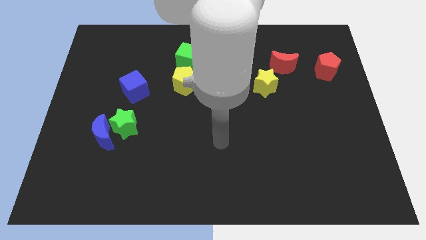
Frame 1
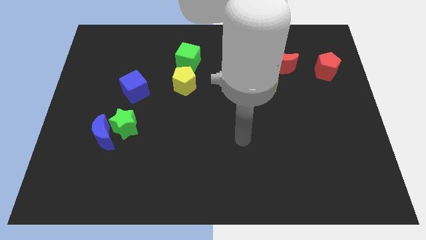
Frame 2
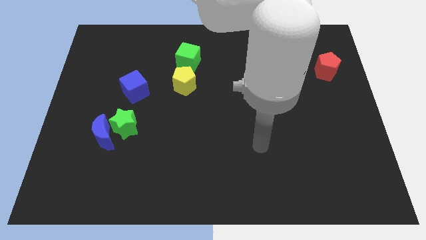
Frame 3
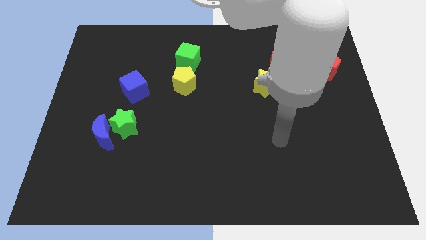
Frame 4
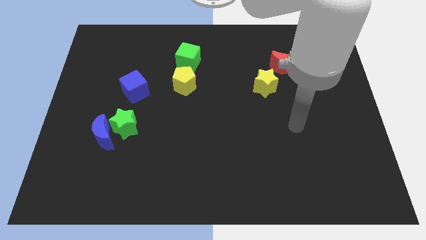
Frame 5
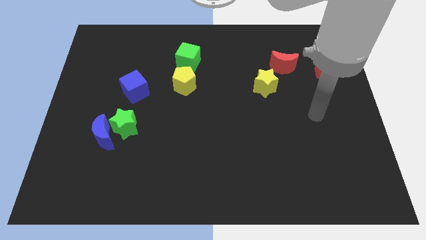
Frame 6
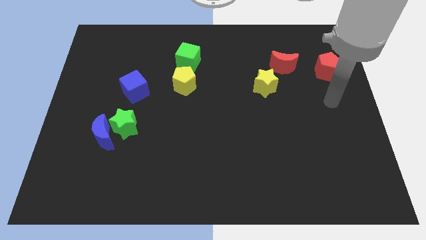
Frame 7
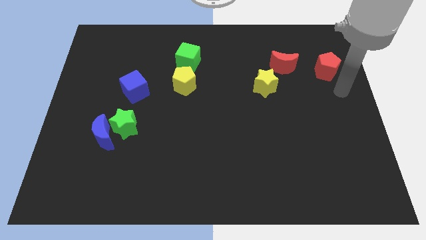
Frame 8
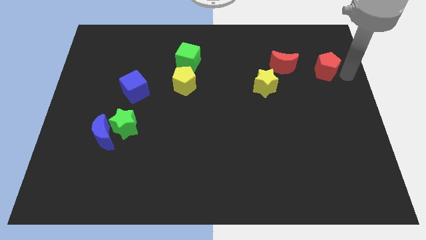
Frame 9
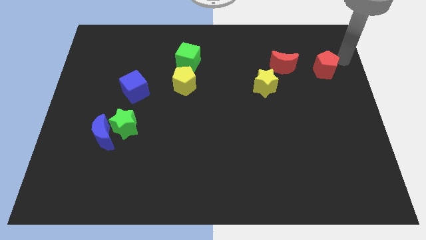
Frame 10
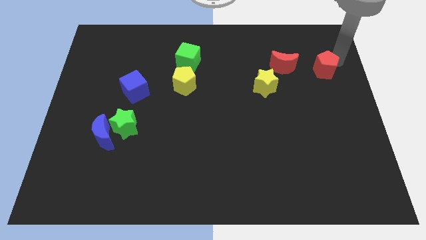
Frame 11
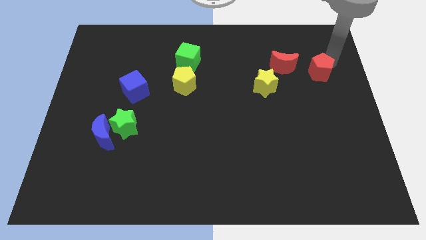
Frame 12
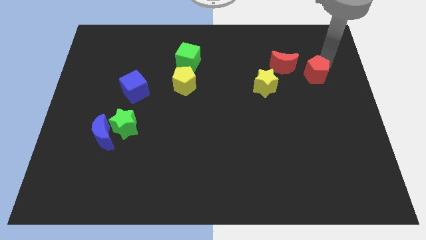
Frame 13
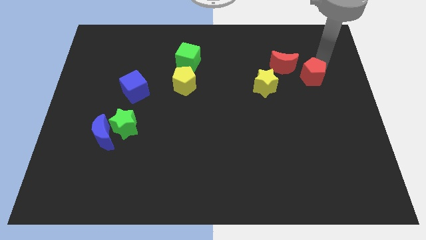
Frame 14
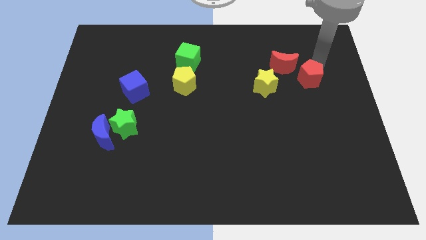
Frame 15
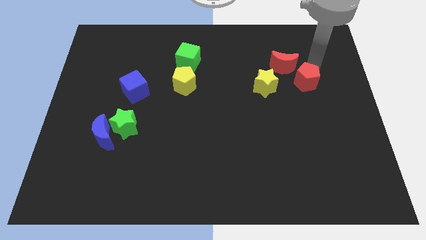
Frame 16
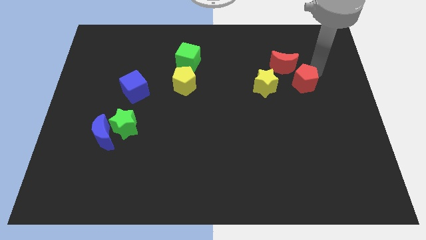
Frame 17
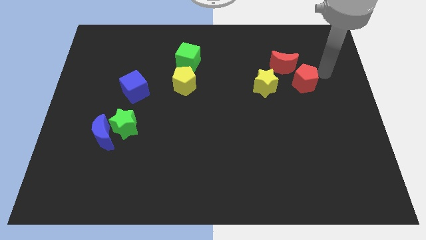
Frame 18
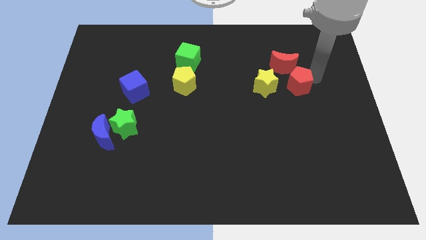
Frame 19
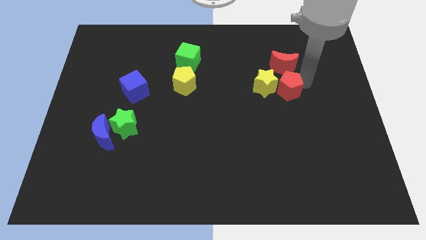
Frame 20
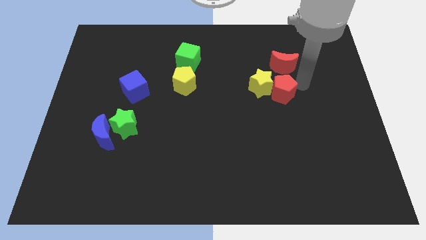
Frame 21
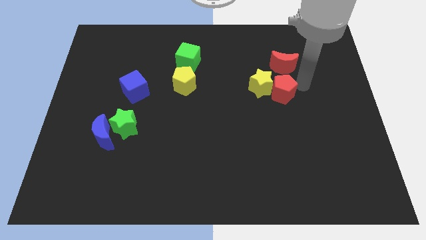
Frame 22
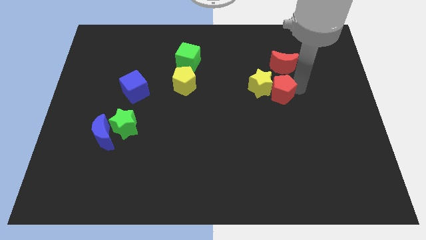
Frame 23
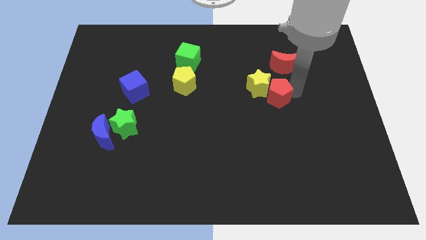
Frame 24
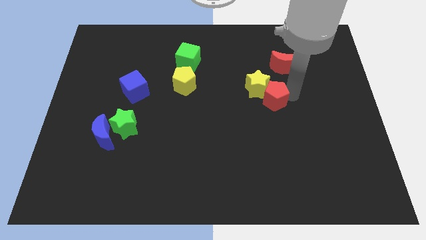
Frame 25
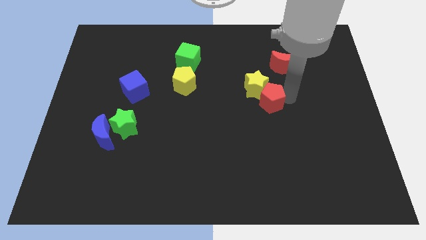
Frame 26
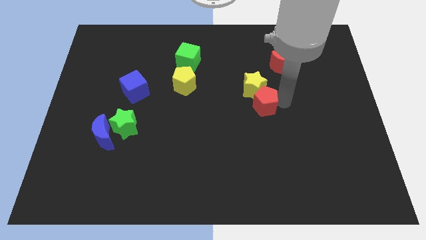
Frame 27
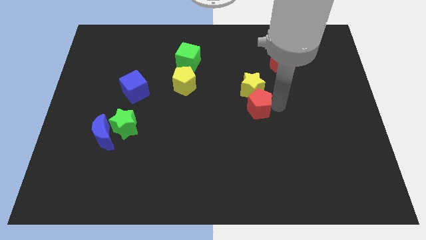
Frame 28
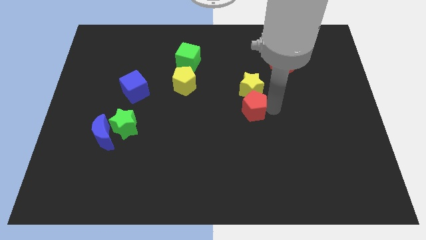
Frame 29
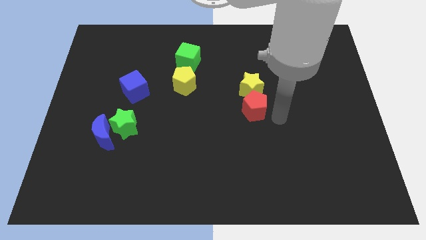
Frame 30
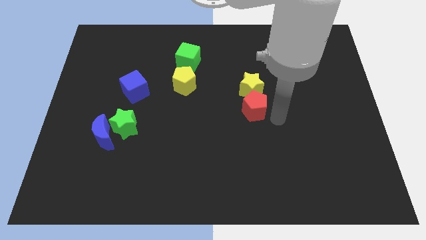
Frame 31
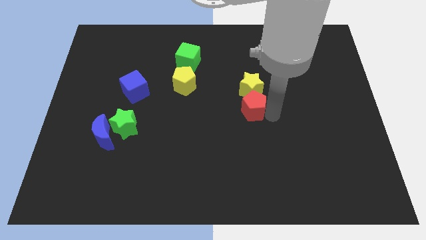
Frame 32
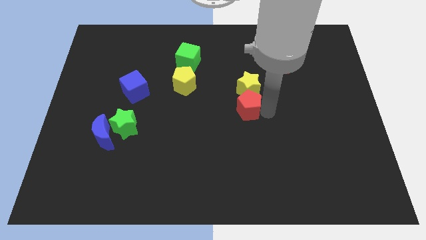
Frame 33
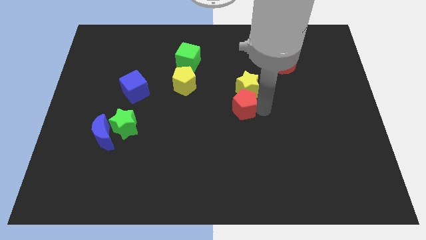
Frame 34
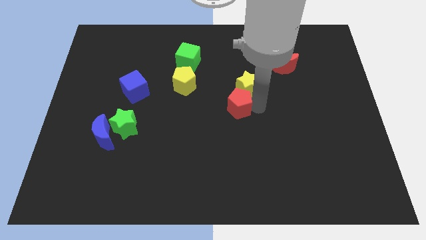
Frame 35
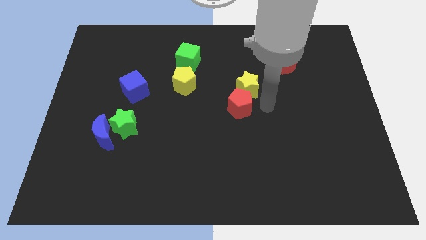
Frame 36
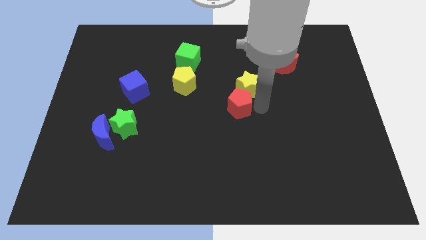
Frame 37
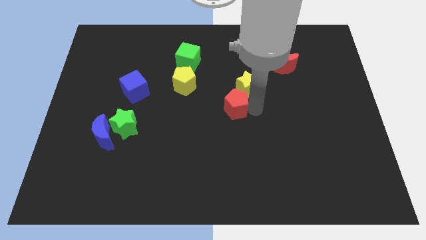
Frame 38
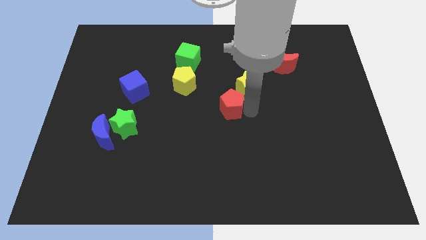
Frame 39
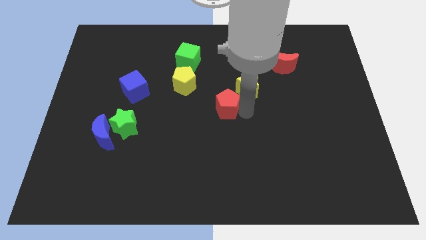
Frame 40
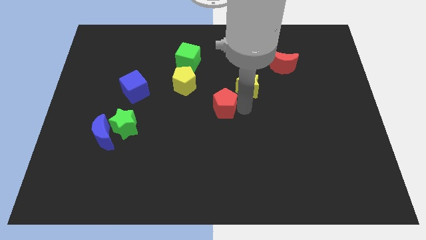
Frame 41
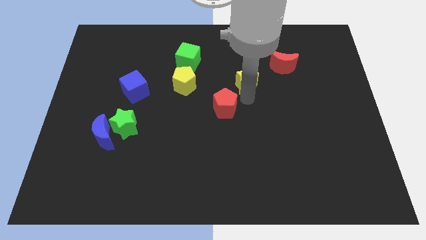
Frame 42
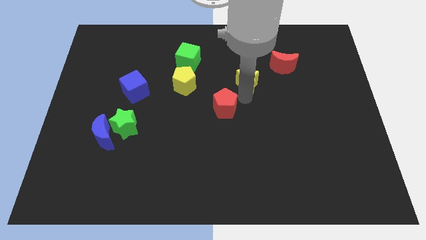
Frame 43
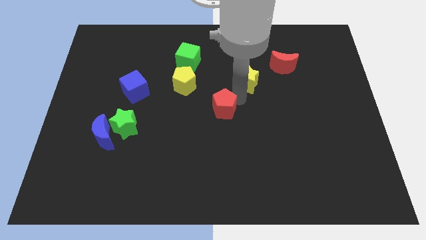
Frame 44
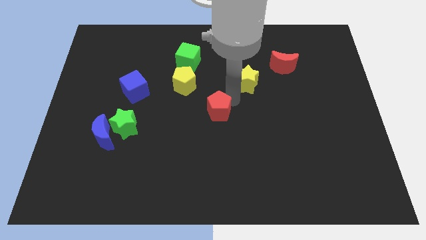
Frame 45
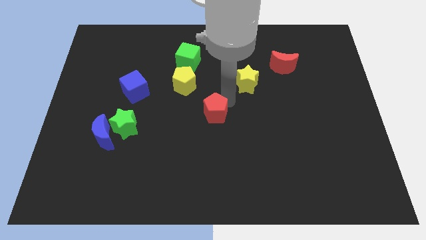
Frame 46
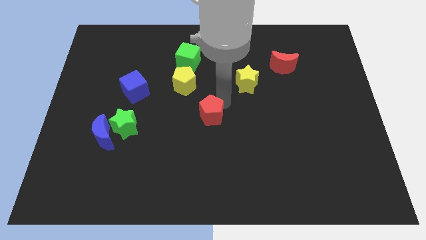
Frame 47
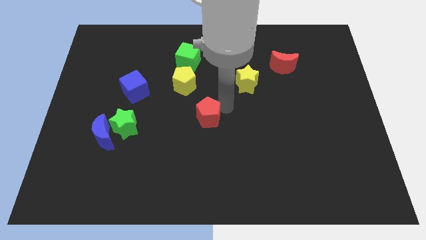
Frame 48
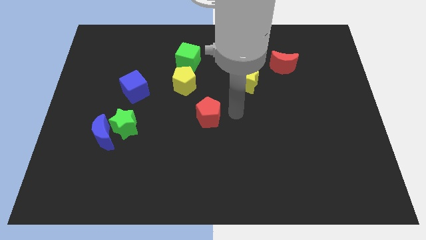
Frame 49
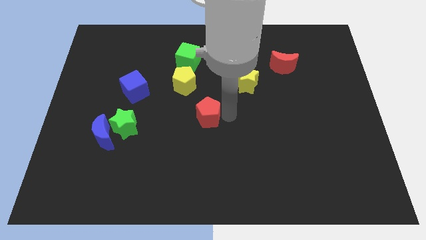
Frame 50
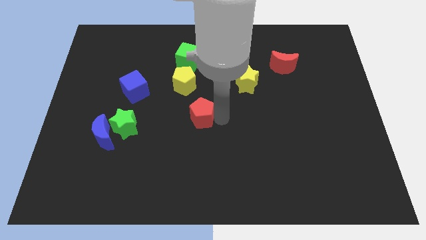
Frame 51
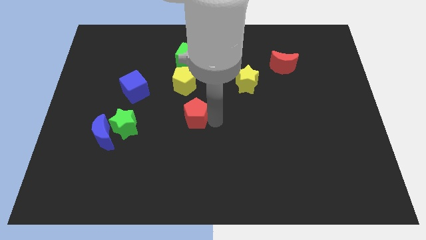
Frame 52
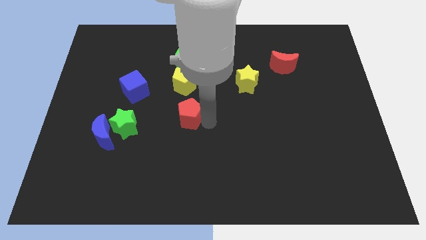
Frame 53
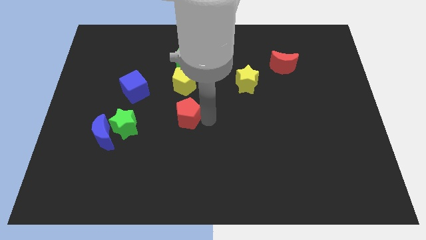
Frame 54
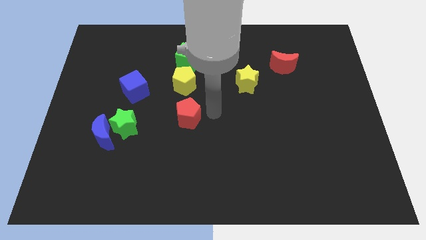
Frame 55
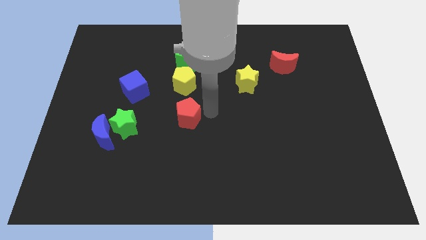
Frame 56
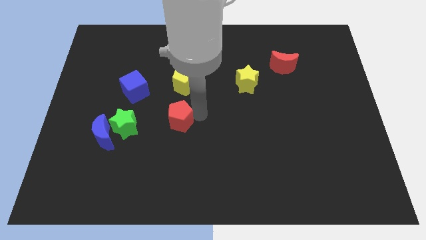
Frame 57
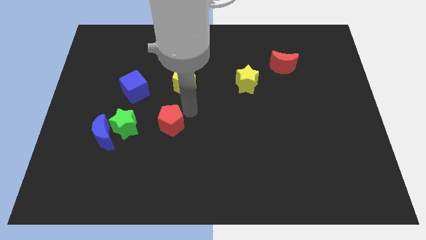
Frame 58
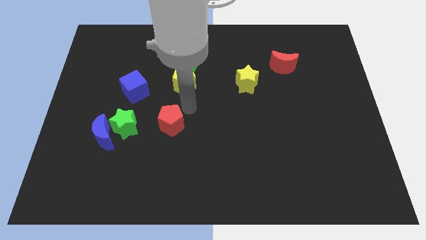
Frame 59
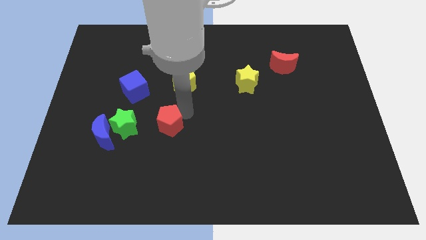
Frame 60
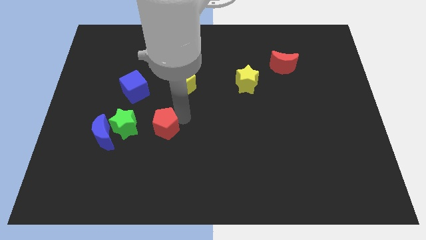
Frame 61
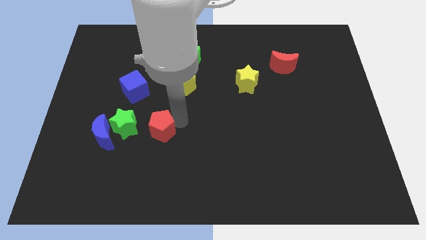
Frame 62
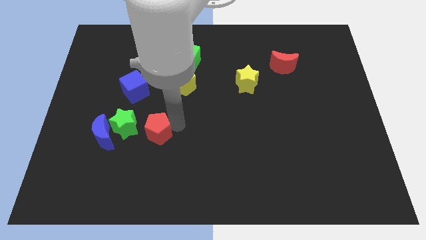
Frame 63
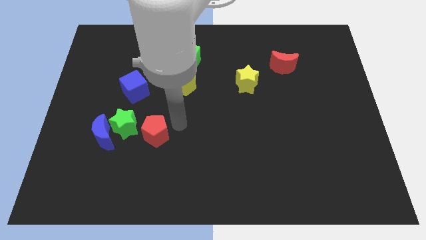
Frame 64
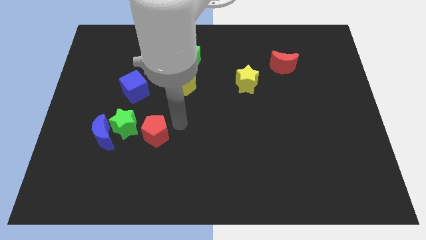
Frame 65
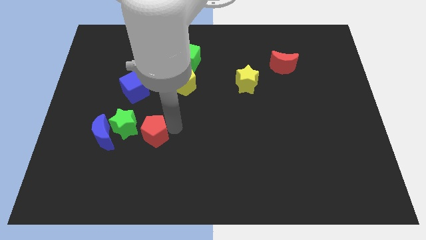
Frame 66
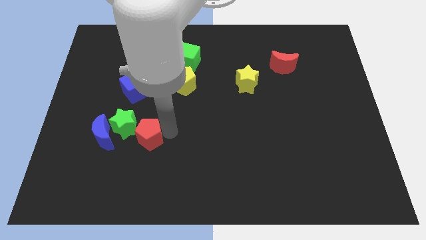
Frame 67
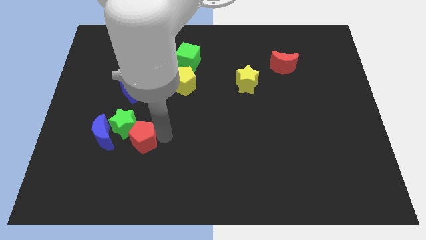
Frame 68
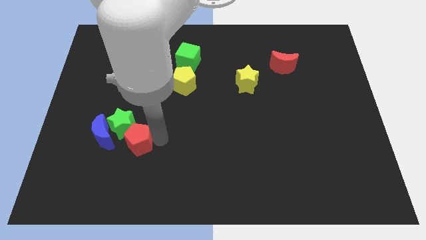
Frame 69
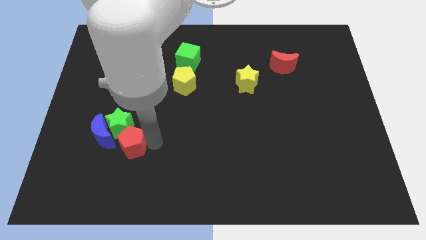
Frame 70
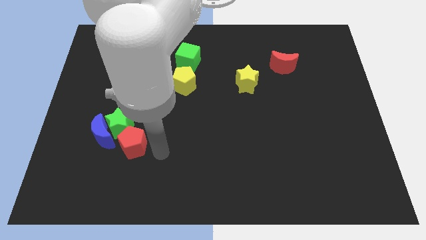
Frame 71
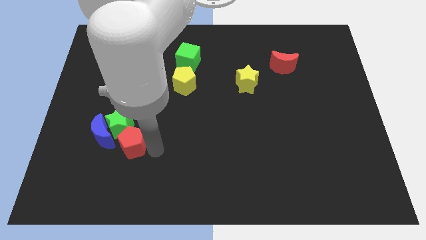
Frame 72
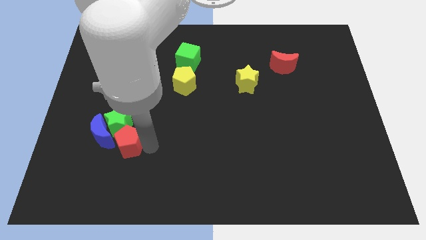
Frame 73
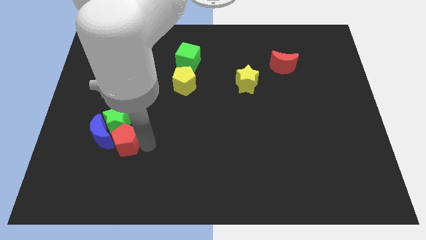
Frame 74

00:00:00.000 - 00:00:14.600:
put the red pentagon next to the blue moon
